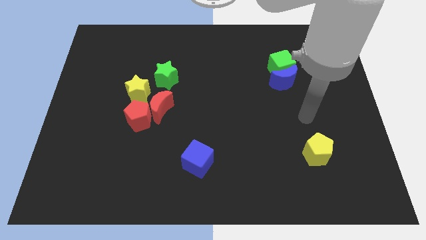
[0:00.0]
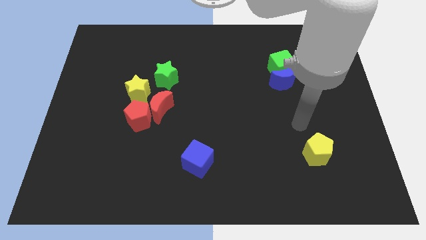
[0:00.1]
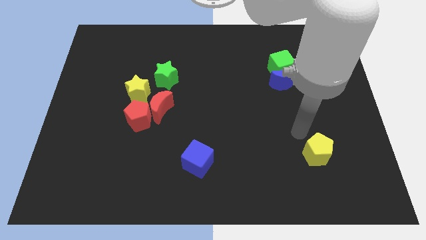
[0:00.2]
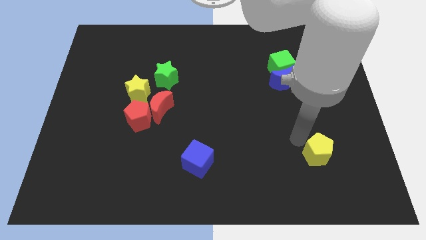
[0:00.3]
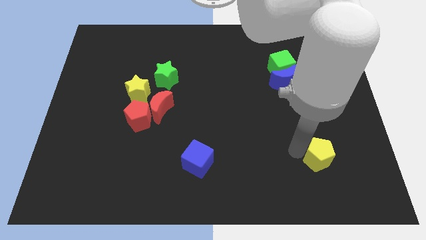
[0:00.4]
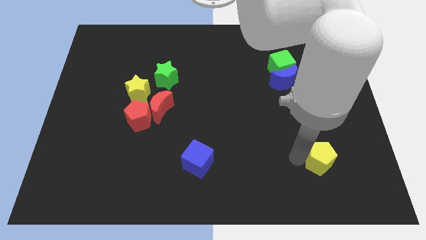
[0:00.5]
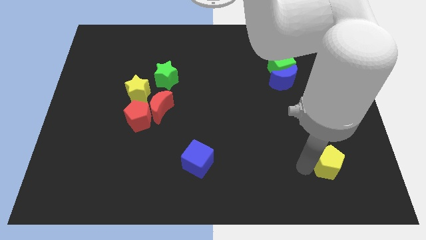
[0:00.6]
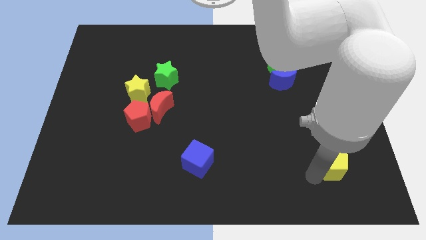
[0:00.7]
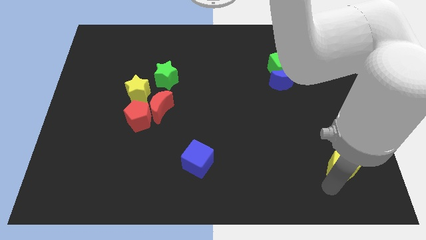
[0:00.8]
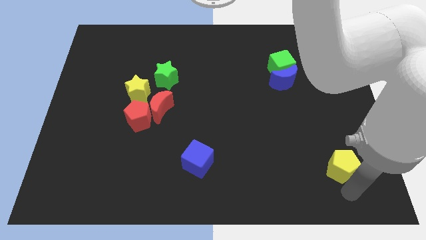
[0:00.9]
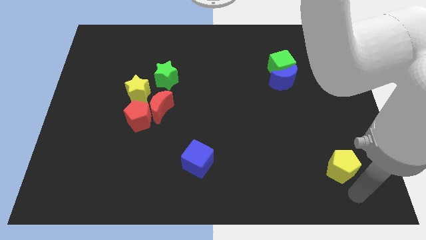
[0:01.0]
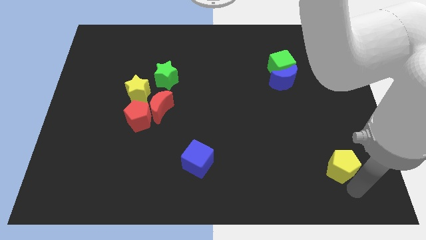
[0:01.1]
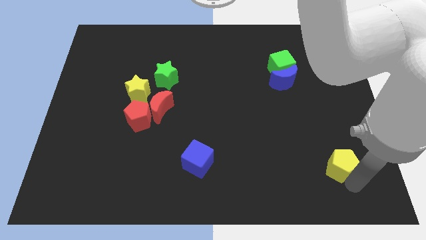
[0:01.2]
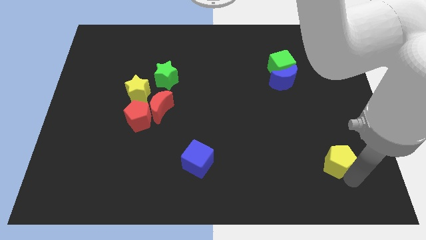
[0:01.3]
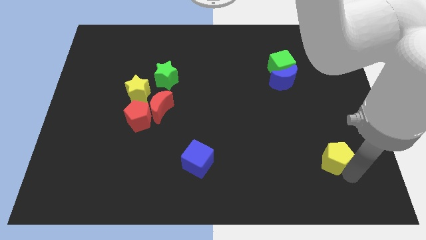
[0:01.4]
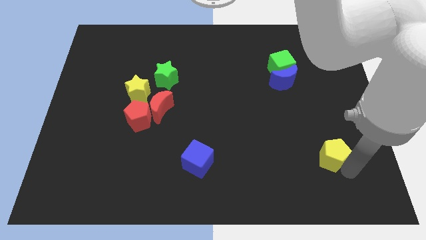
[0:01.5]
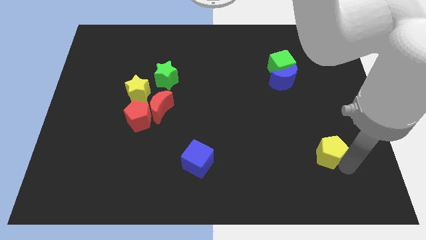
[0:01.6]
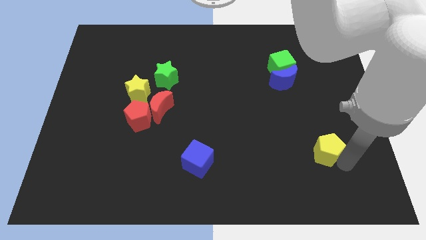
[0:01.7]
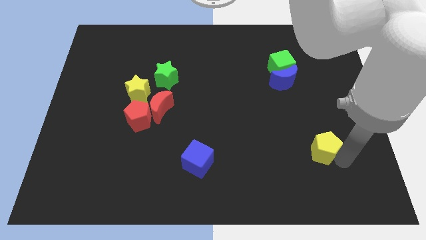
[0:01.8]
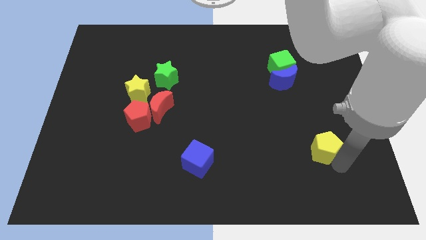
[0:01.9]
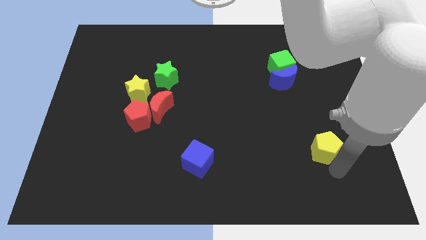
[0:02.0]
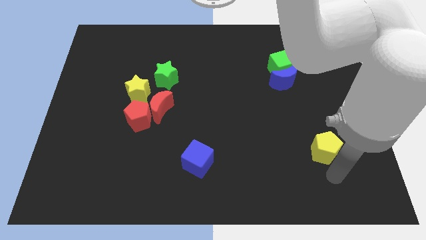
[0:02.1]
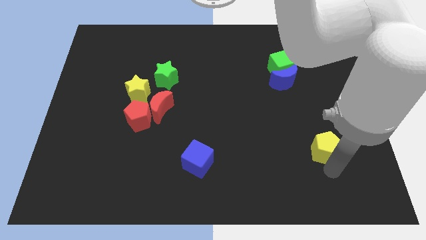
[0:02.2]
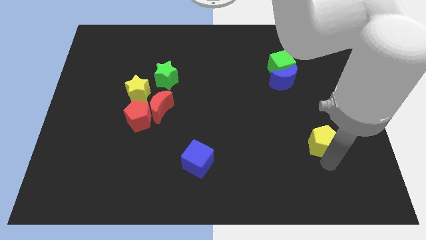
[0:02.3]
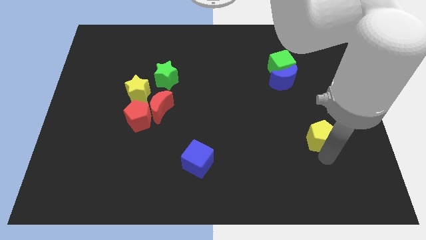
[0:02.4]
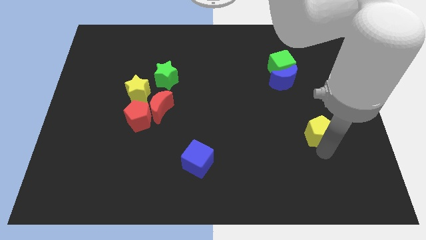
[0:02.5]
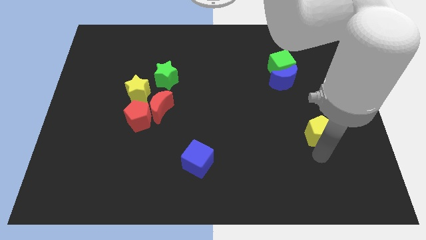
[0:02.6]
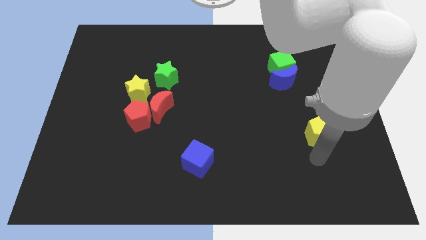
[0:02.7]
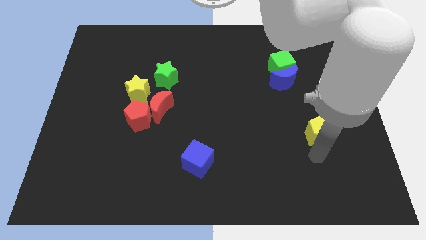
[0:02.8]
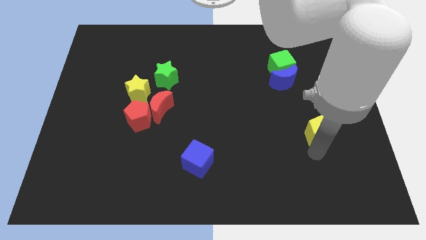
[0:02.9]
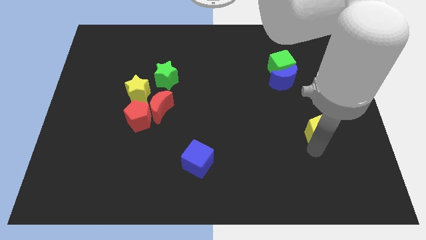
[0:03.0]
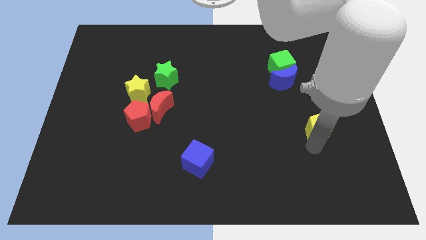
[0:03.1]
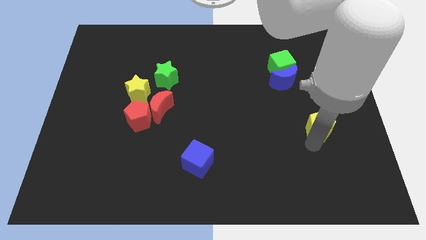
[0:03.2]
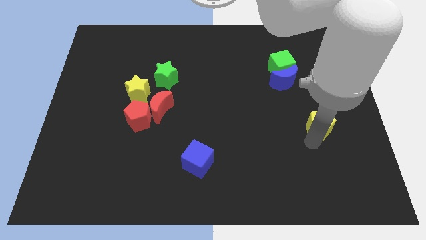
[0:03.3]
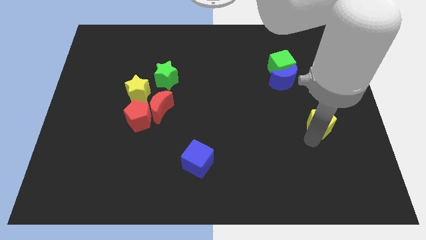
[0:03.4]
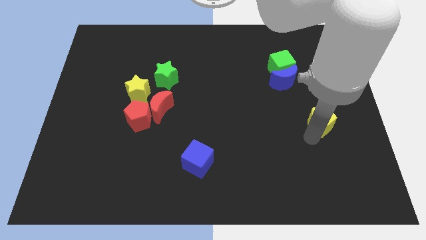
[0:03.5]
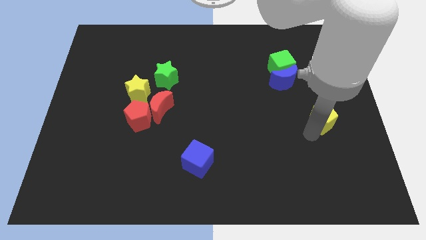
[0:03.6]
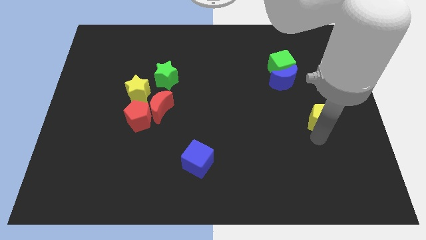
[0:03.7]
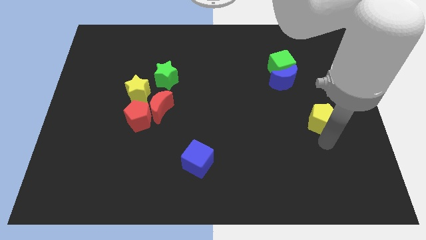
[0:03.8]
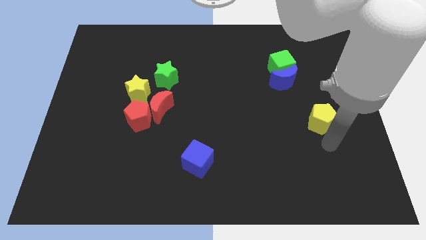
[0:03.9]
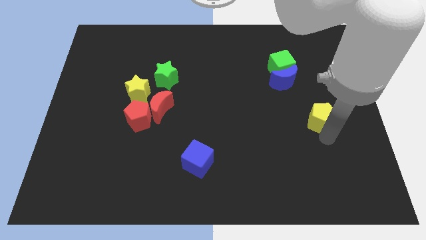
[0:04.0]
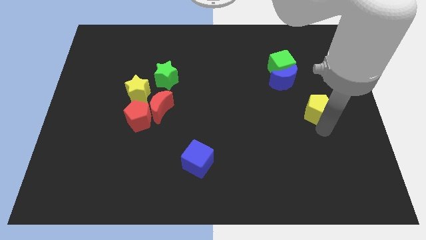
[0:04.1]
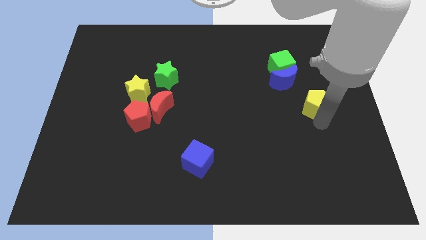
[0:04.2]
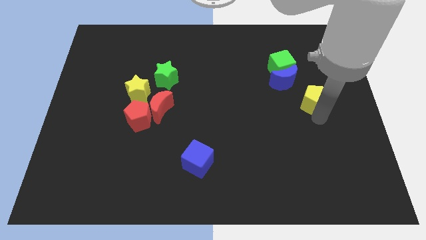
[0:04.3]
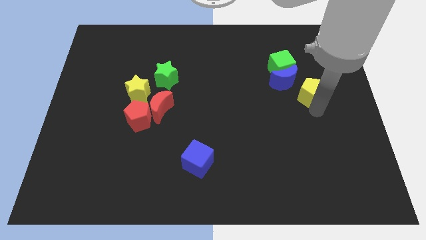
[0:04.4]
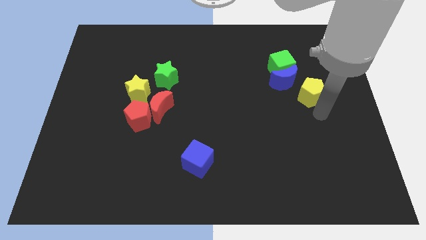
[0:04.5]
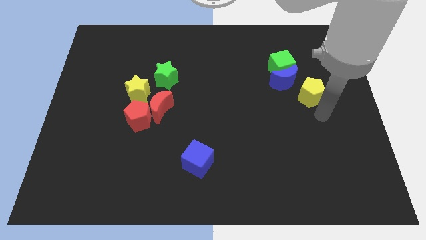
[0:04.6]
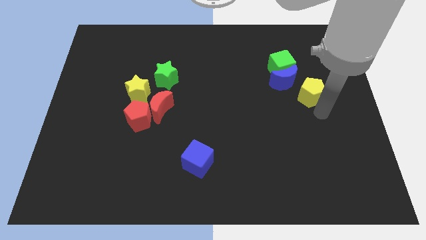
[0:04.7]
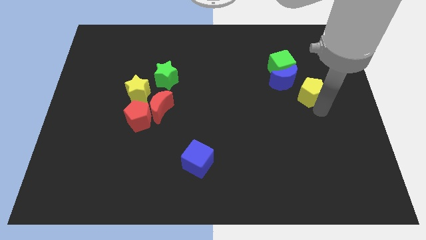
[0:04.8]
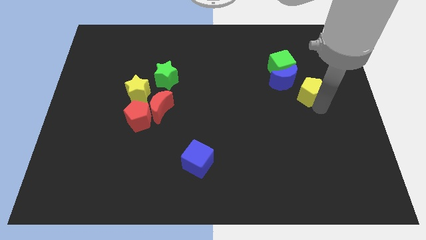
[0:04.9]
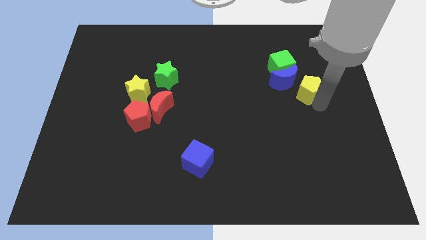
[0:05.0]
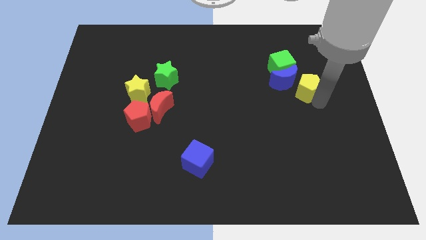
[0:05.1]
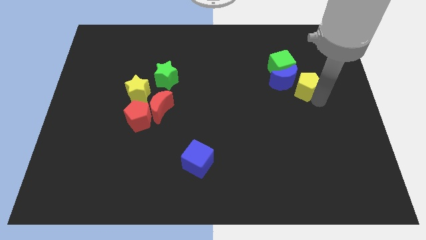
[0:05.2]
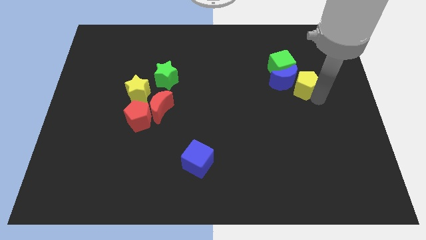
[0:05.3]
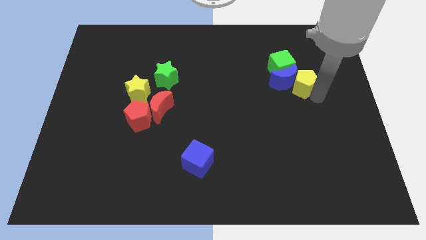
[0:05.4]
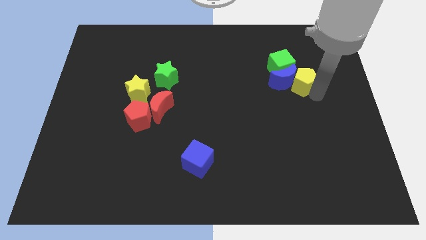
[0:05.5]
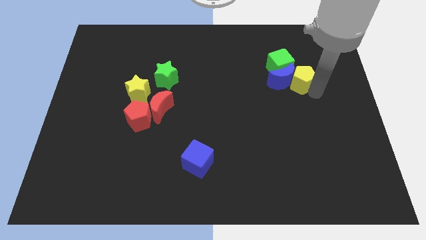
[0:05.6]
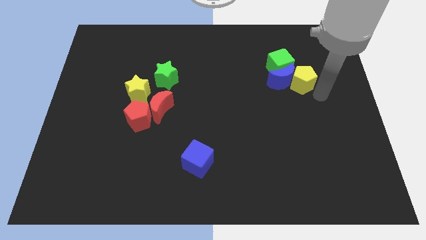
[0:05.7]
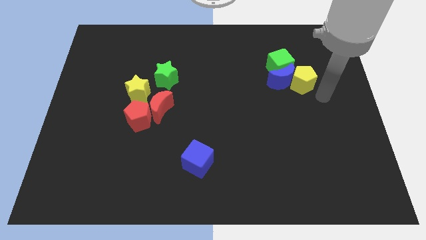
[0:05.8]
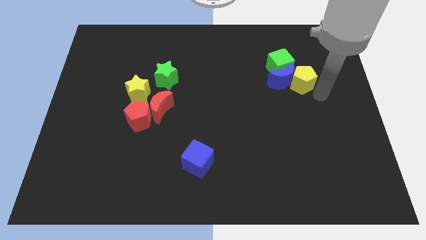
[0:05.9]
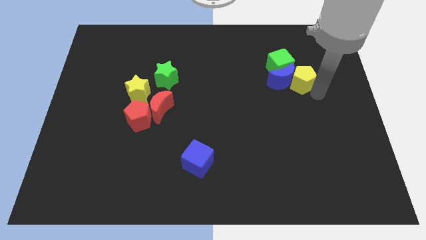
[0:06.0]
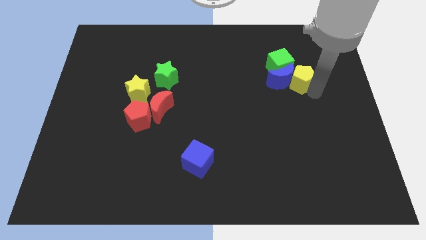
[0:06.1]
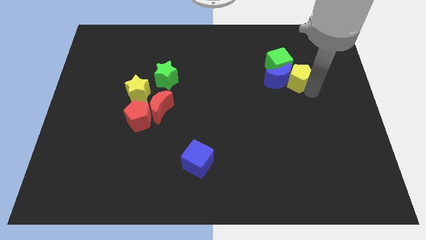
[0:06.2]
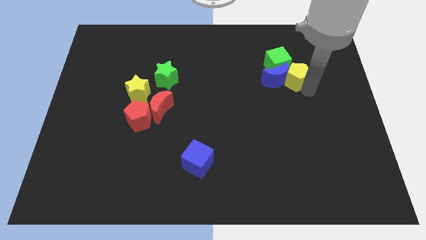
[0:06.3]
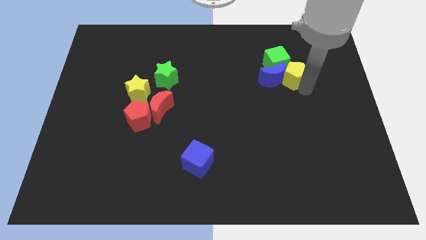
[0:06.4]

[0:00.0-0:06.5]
move the yellow pentagon towards the green cube
